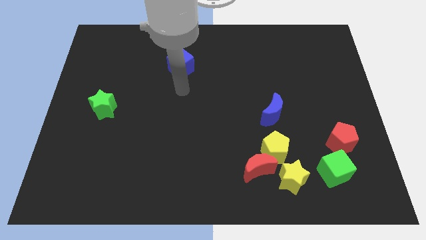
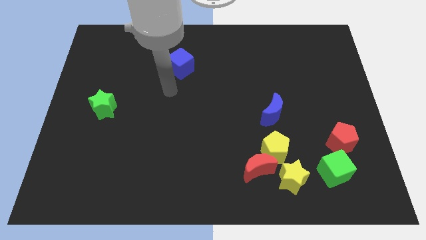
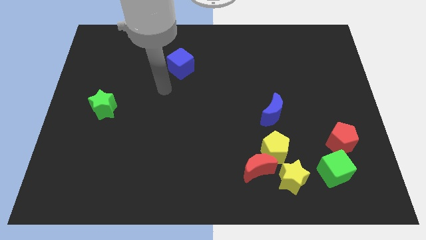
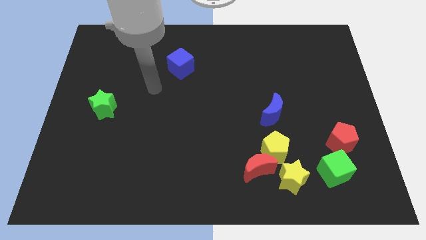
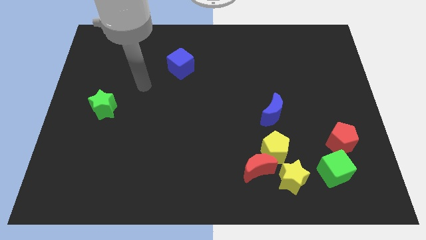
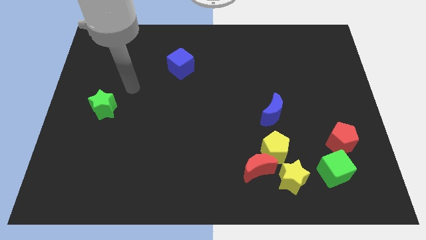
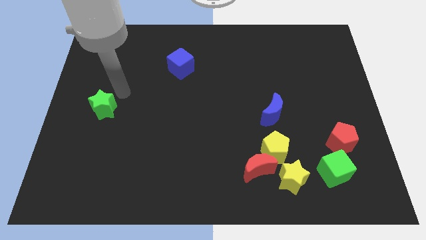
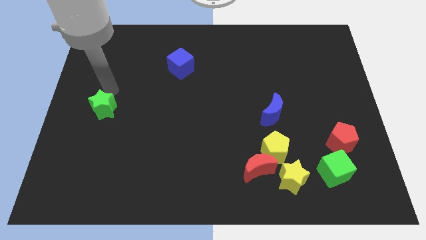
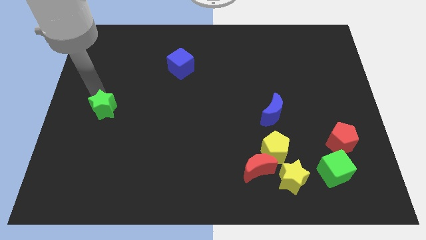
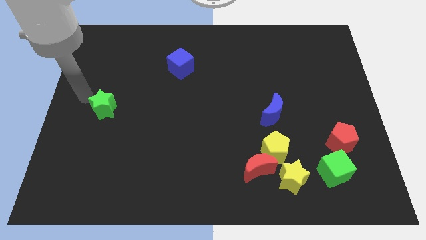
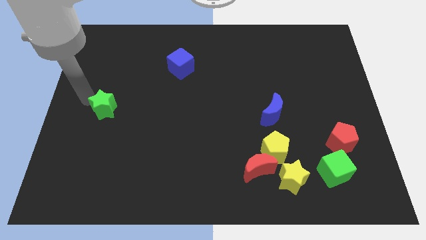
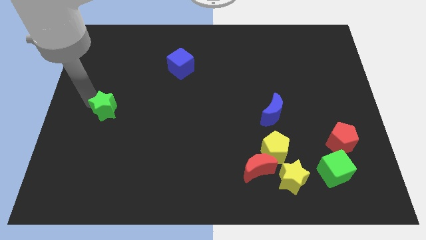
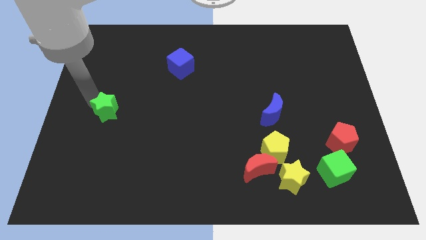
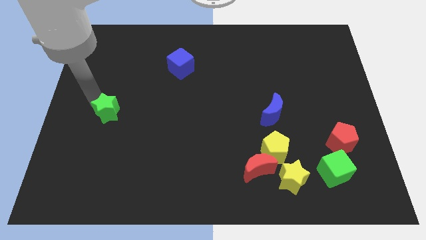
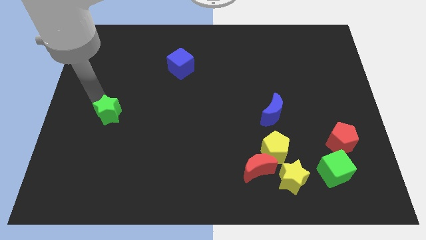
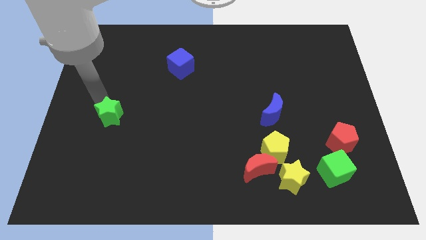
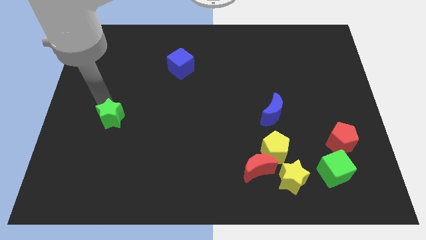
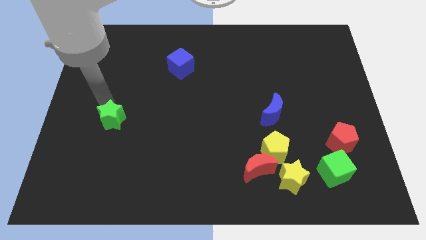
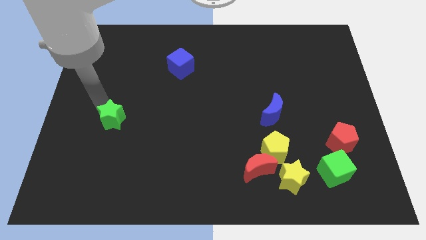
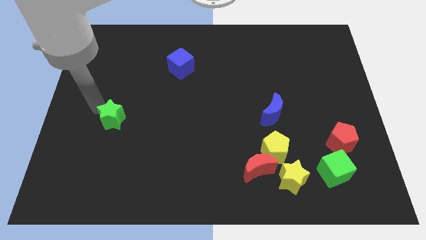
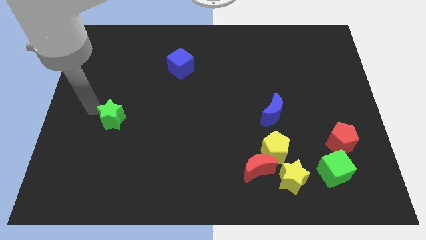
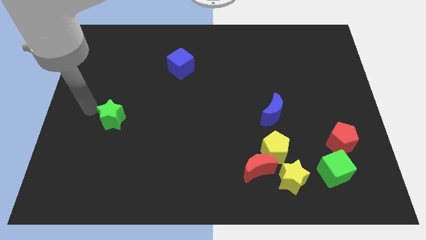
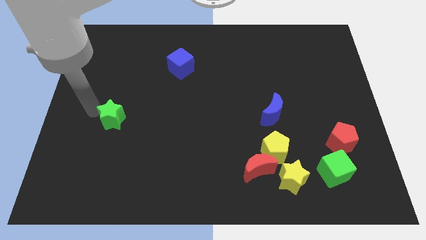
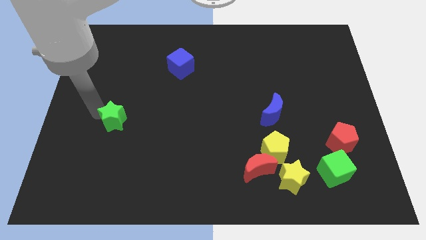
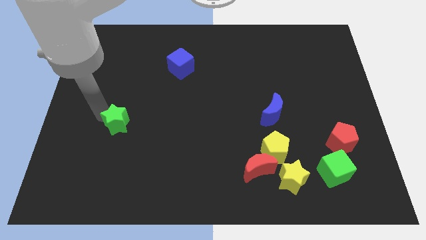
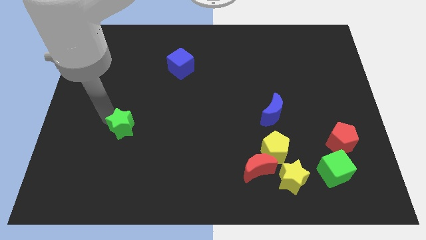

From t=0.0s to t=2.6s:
slightly slide the green star down and then to the right

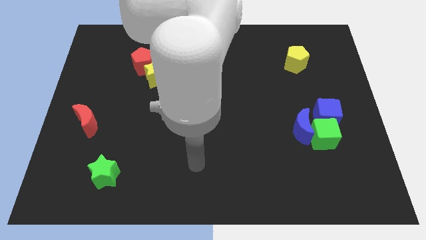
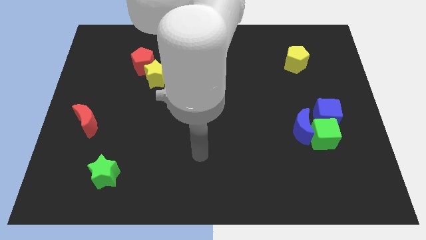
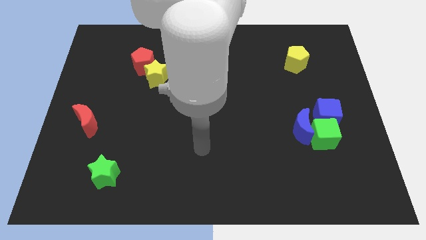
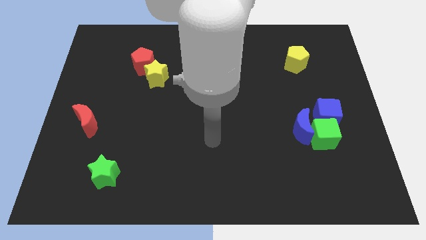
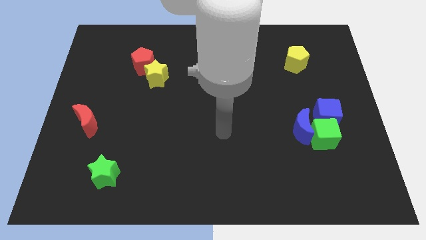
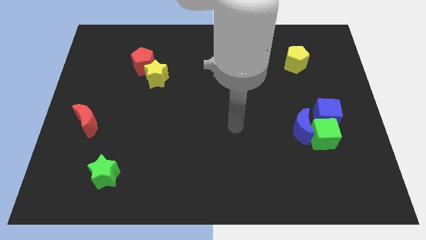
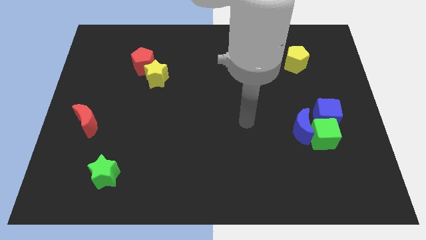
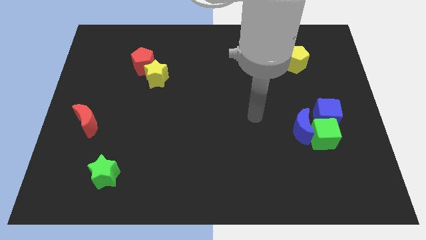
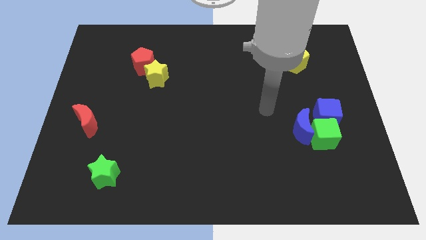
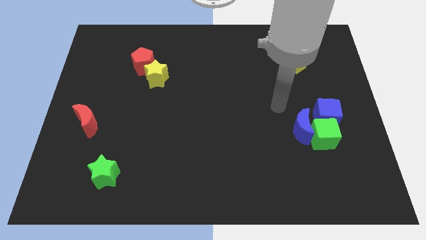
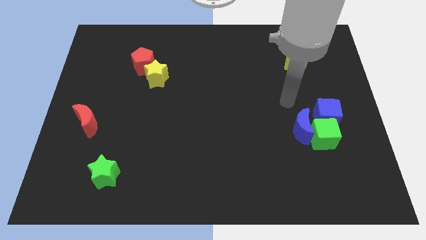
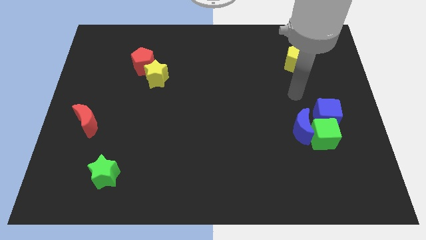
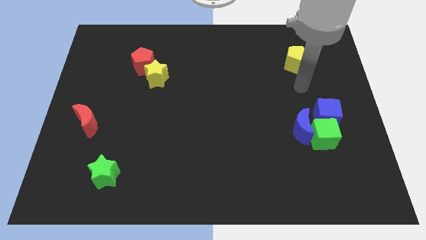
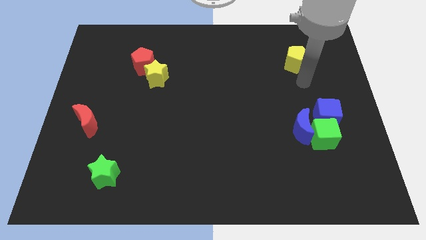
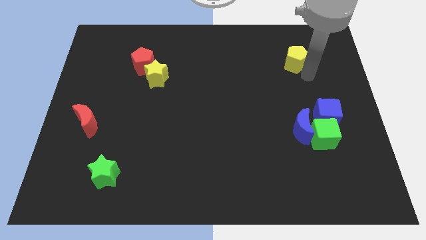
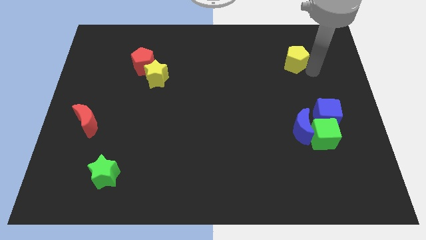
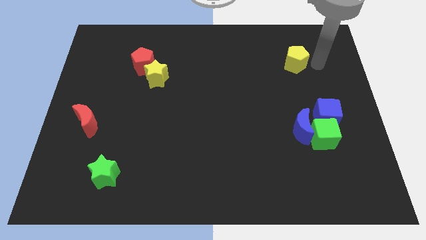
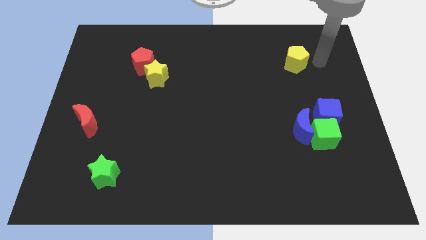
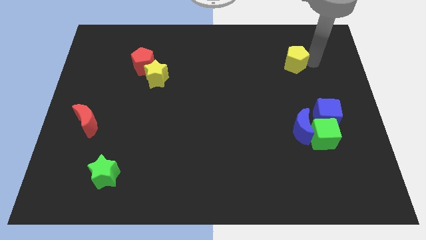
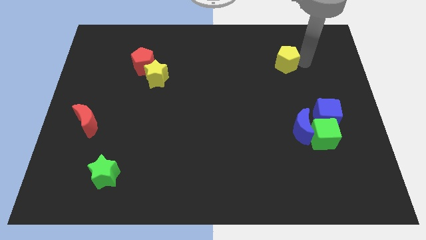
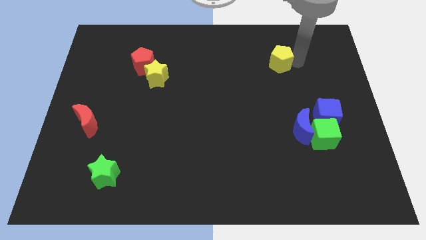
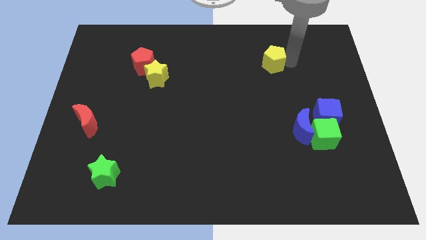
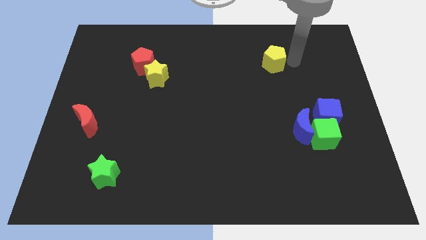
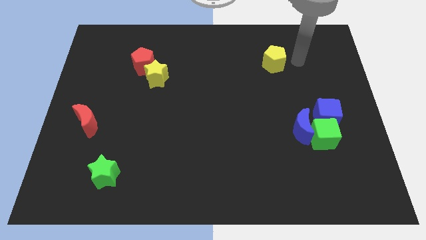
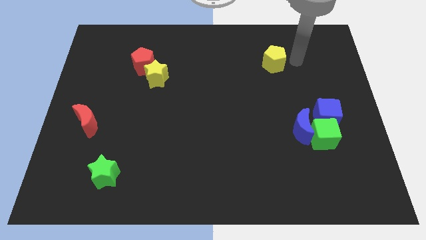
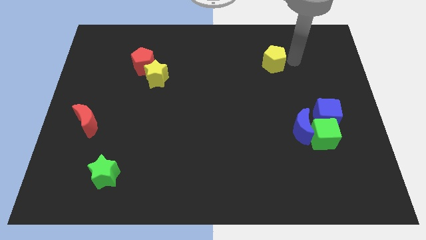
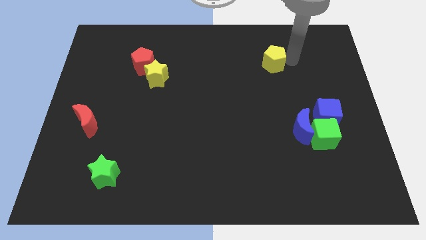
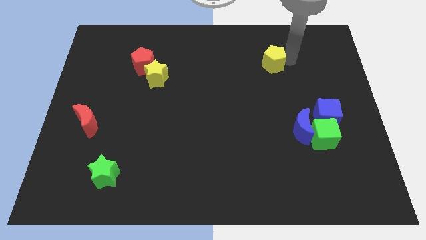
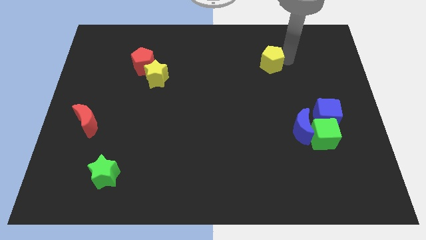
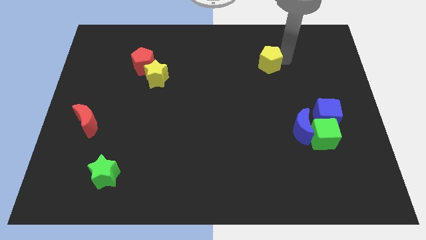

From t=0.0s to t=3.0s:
slightly slide the yellow pentagon left

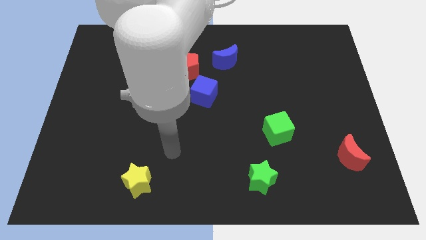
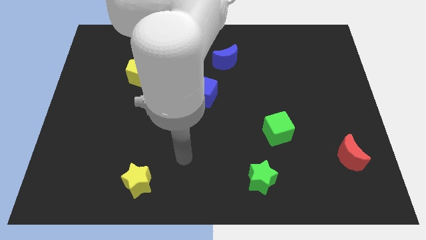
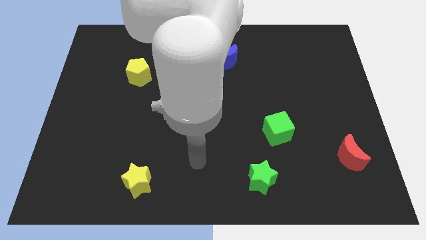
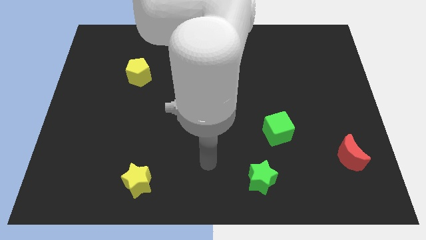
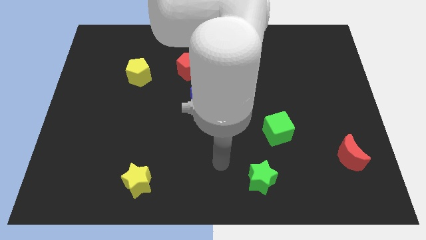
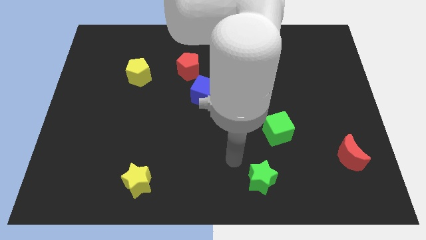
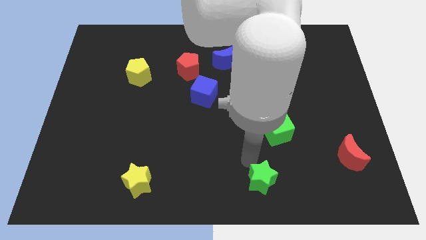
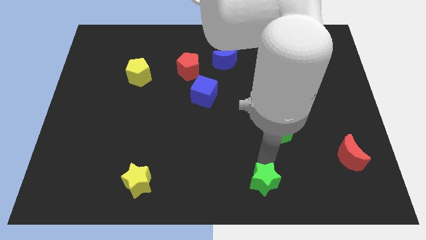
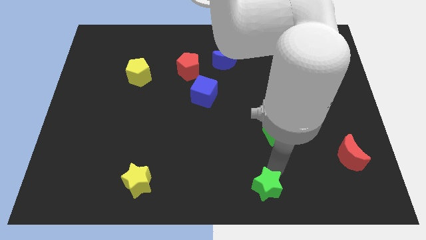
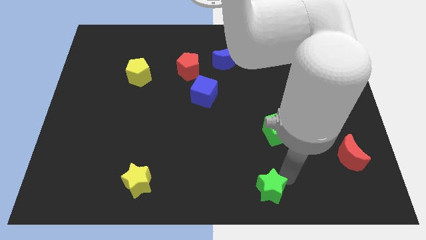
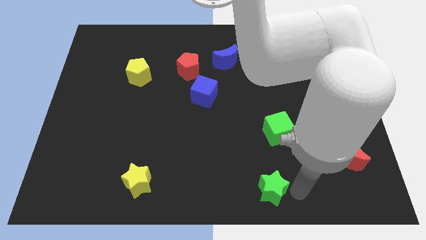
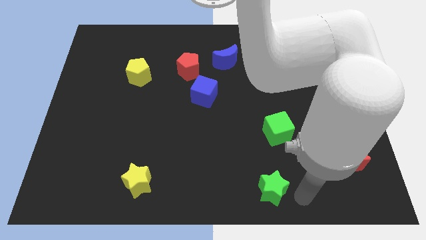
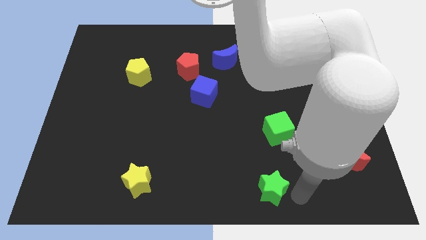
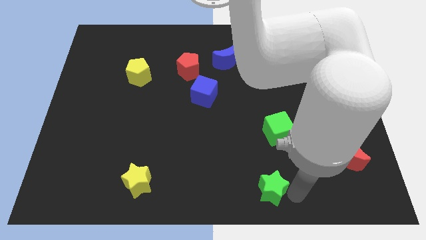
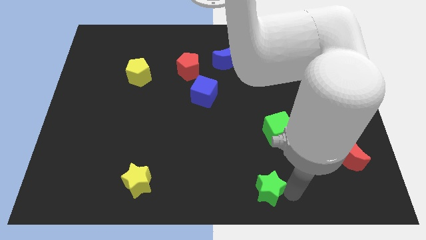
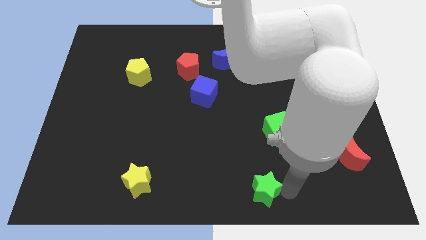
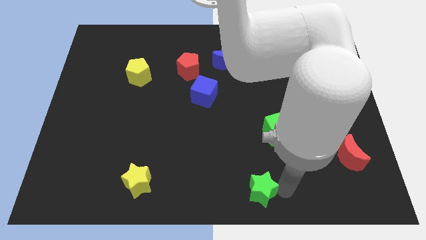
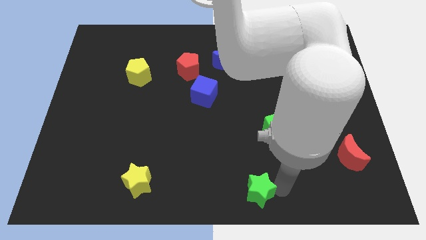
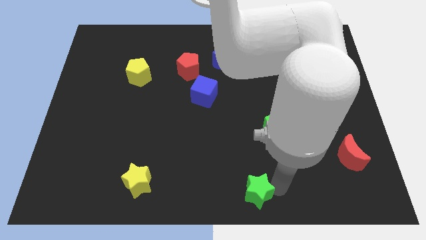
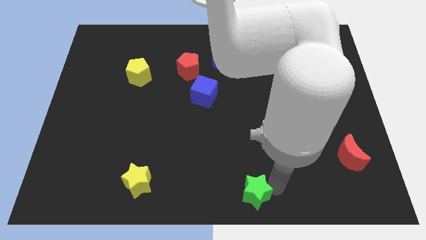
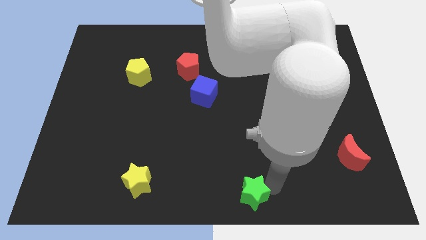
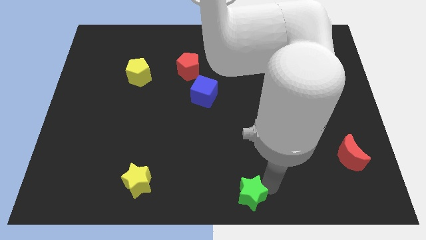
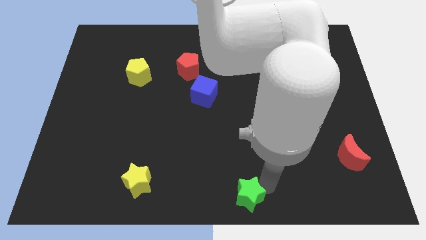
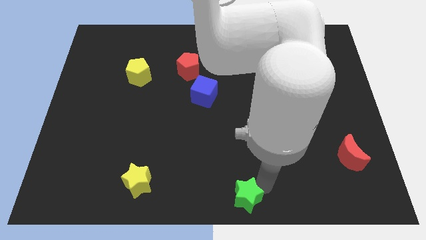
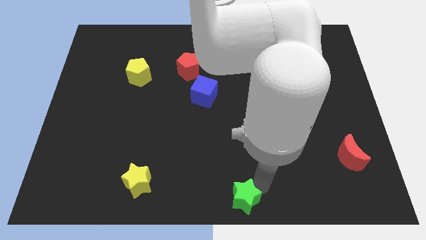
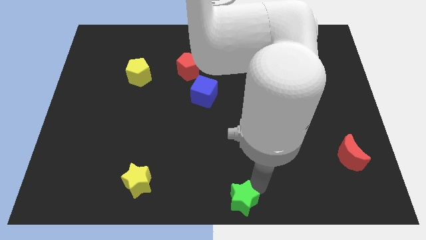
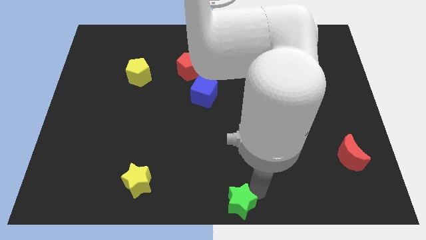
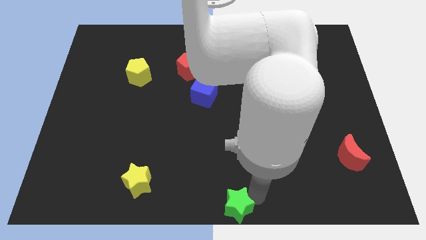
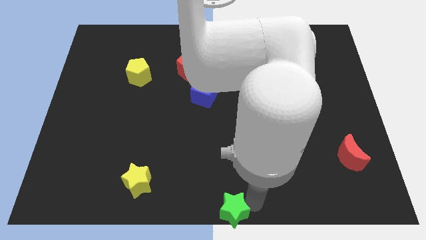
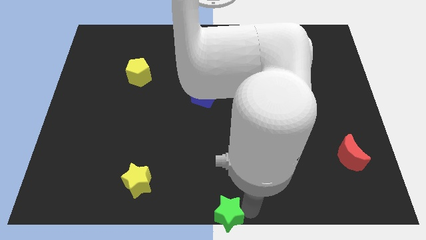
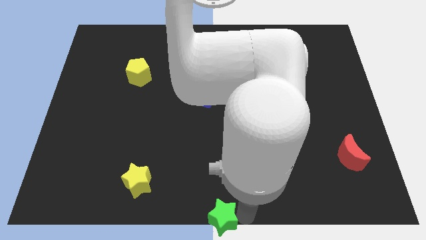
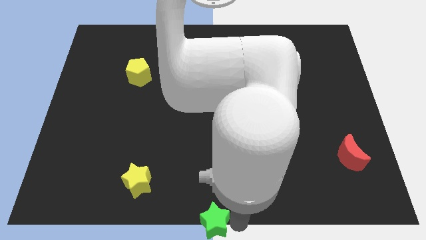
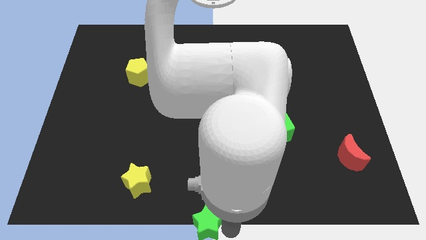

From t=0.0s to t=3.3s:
slightly slide the green star to the left
